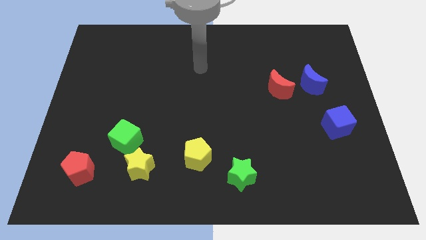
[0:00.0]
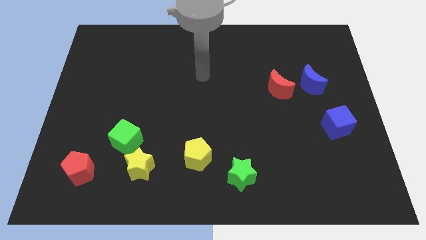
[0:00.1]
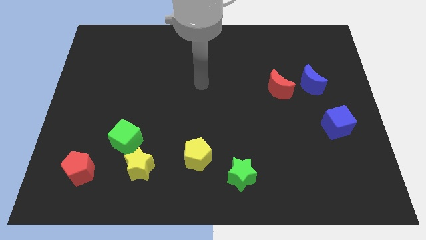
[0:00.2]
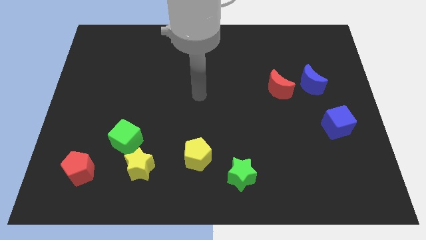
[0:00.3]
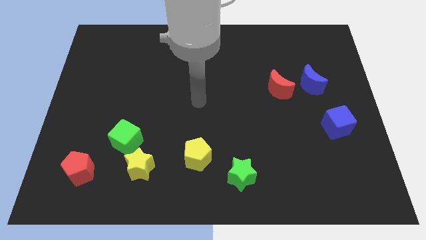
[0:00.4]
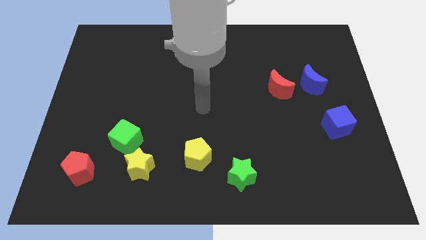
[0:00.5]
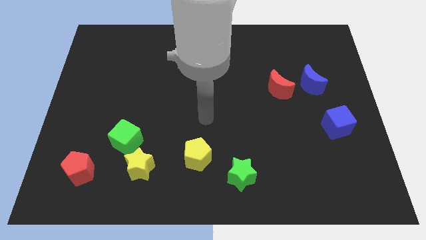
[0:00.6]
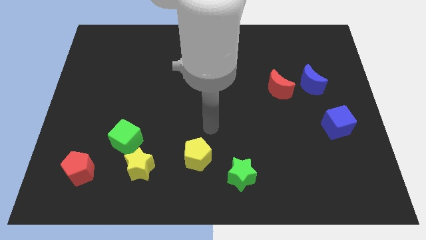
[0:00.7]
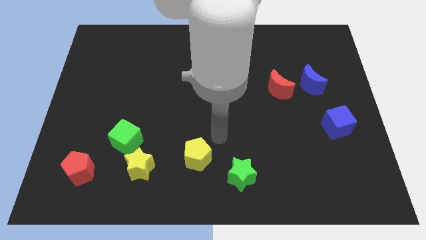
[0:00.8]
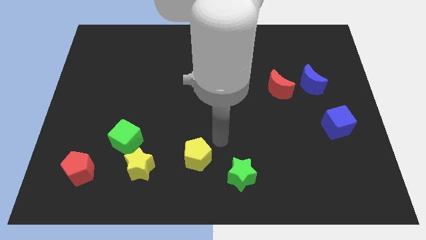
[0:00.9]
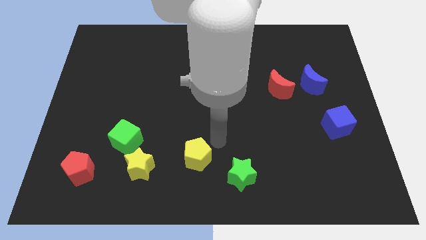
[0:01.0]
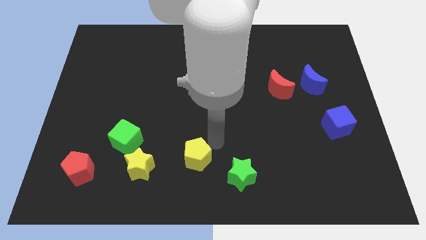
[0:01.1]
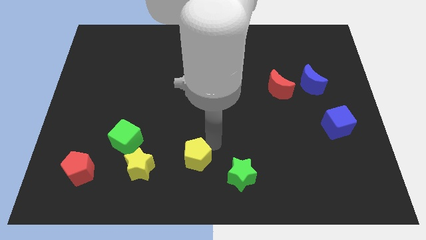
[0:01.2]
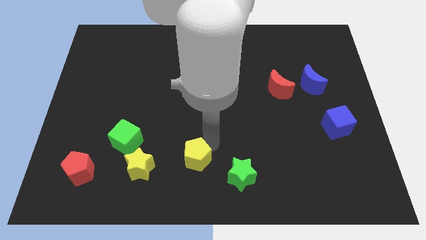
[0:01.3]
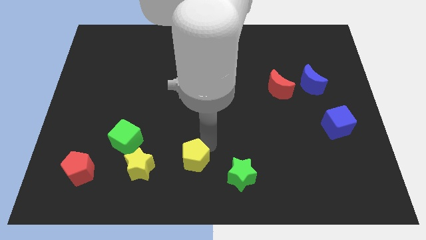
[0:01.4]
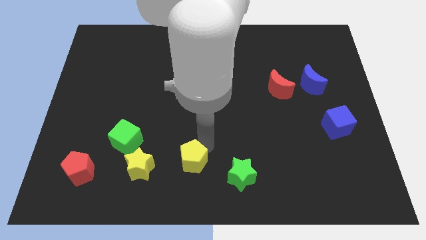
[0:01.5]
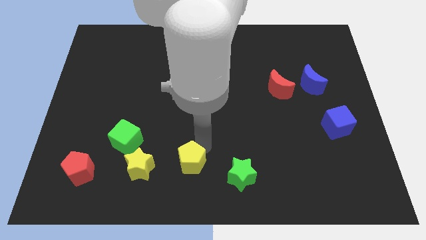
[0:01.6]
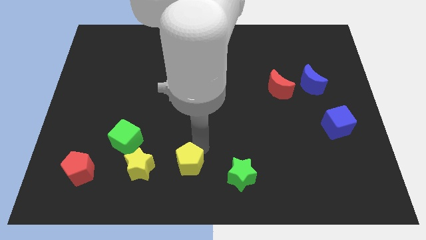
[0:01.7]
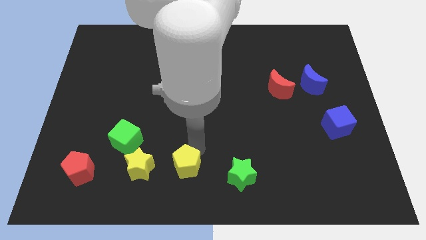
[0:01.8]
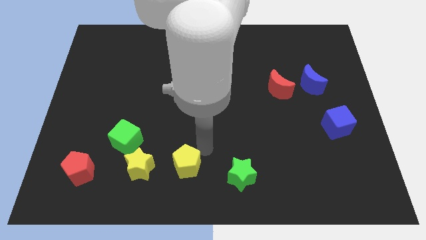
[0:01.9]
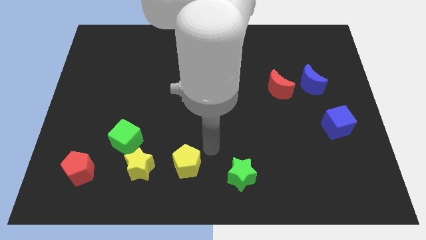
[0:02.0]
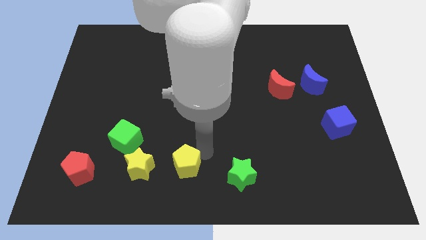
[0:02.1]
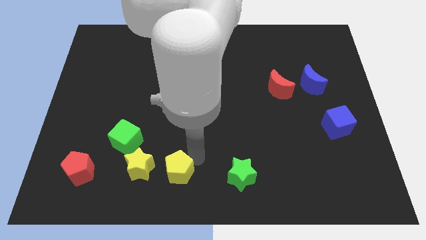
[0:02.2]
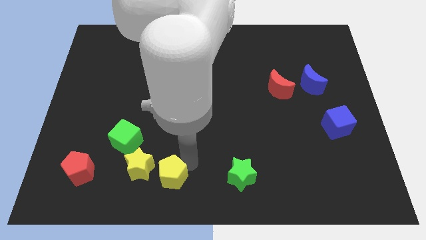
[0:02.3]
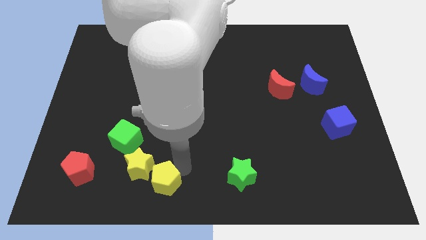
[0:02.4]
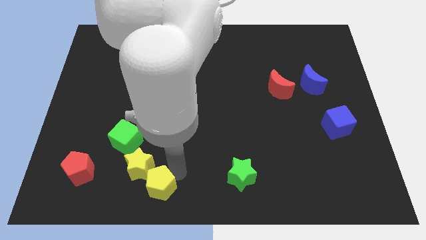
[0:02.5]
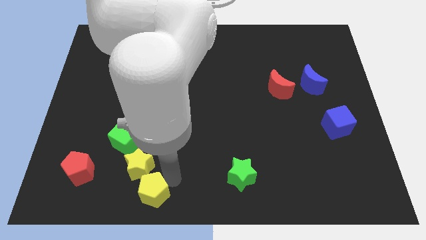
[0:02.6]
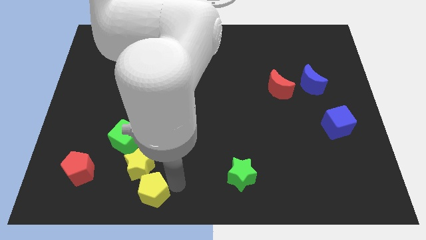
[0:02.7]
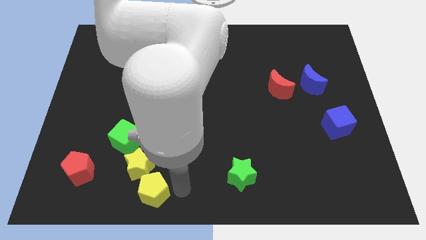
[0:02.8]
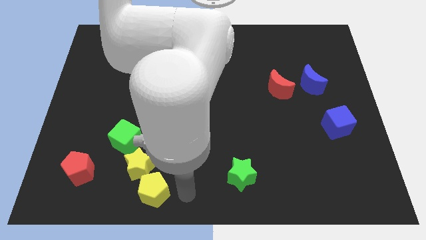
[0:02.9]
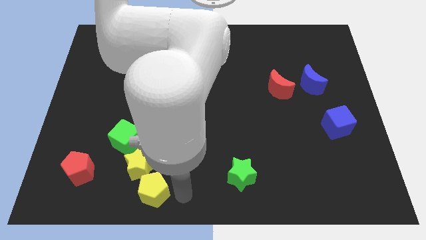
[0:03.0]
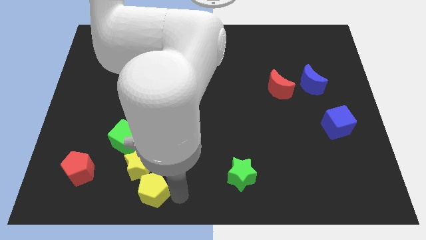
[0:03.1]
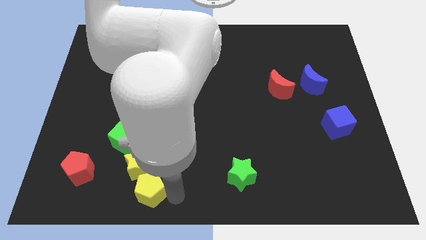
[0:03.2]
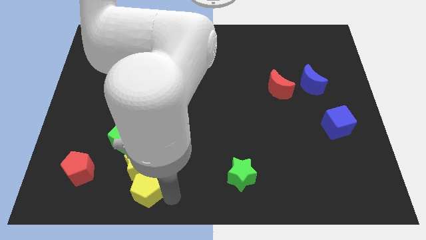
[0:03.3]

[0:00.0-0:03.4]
slightly move the yellow pentagon left

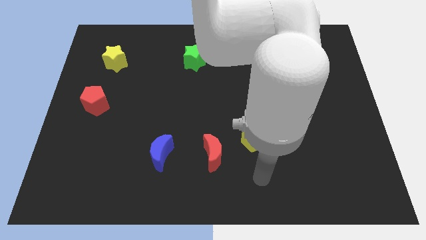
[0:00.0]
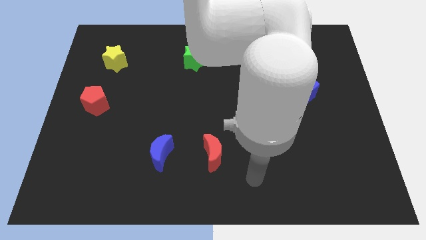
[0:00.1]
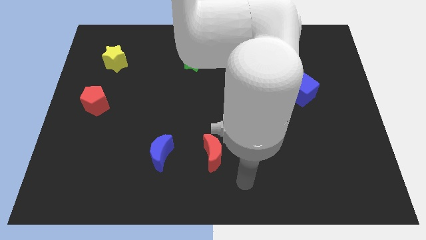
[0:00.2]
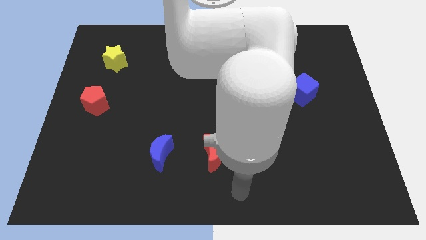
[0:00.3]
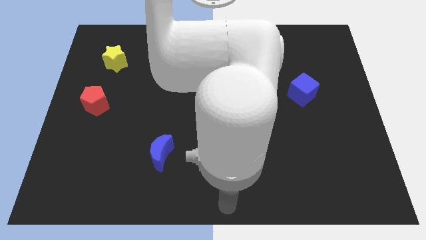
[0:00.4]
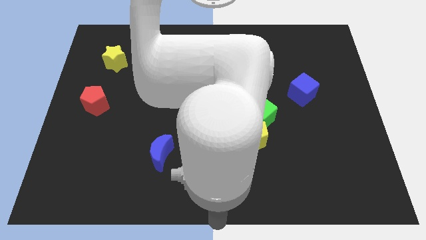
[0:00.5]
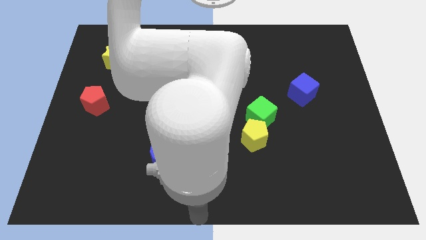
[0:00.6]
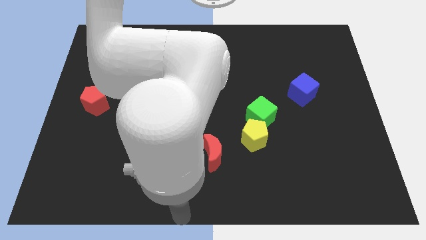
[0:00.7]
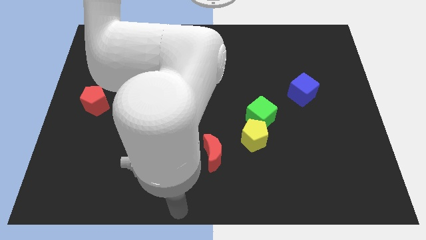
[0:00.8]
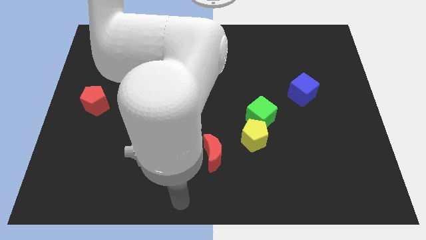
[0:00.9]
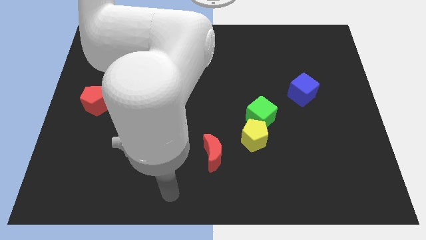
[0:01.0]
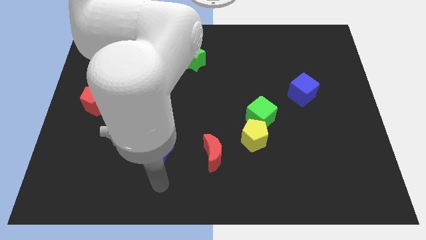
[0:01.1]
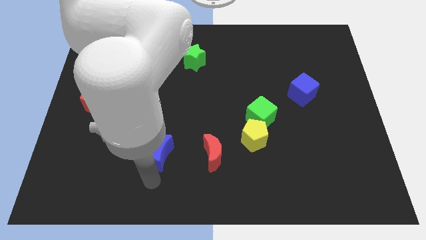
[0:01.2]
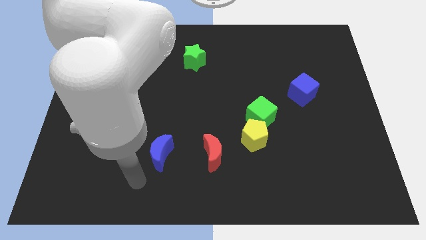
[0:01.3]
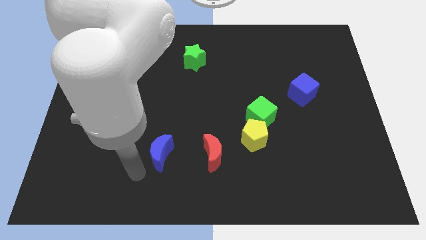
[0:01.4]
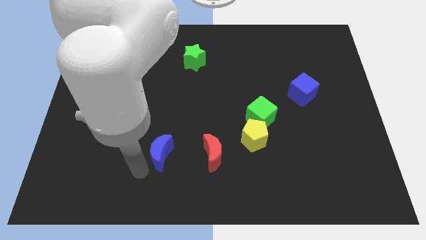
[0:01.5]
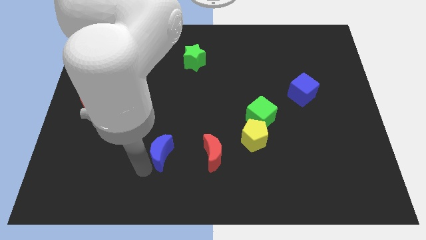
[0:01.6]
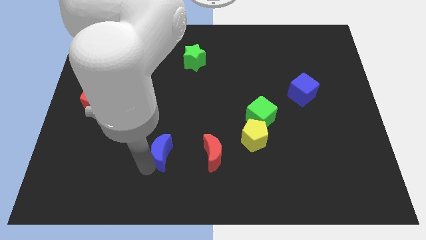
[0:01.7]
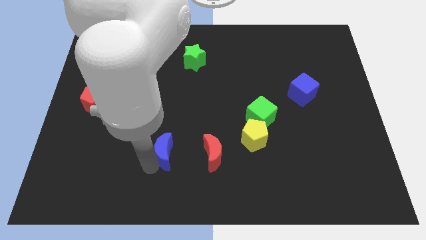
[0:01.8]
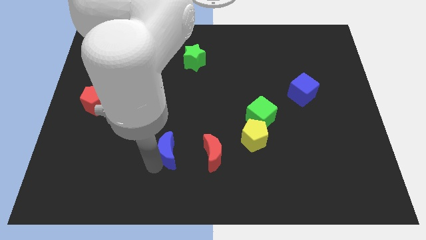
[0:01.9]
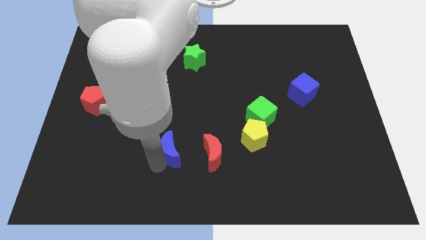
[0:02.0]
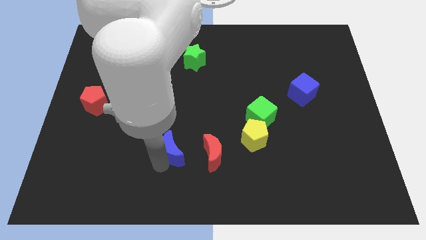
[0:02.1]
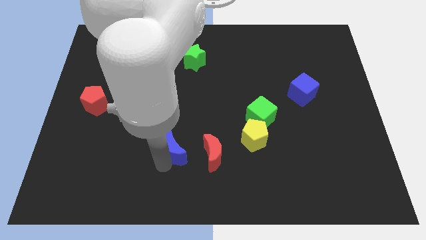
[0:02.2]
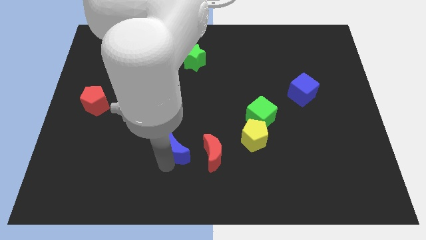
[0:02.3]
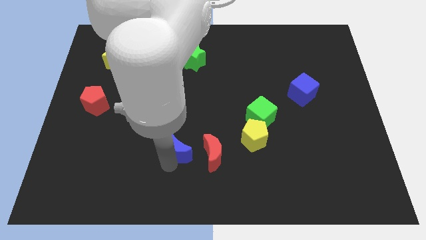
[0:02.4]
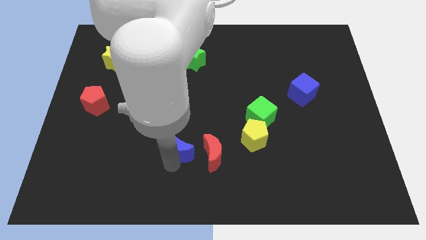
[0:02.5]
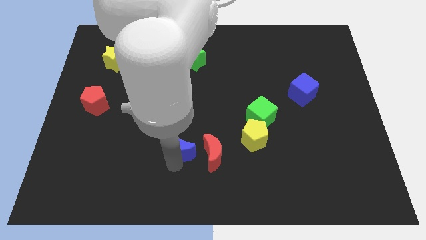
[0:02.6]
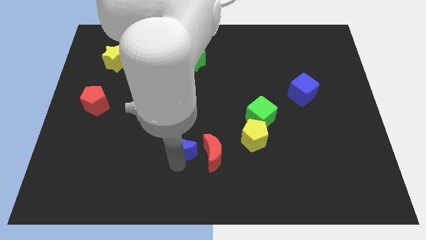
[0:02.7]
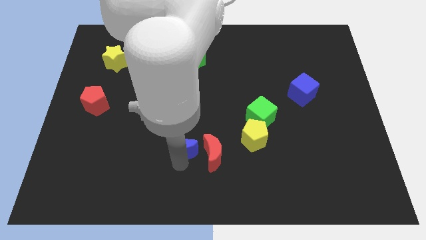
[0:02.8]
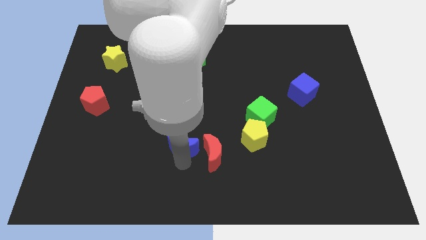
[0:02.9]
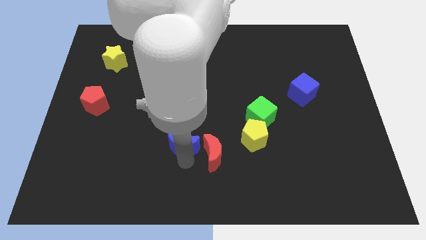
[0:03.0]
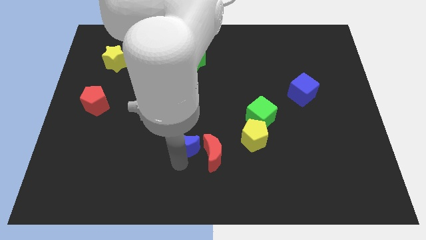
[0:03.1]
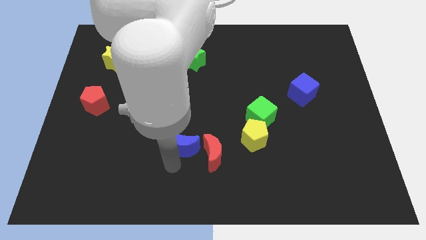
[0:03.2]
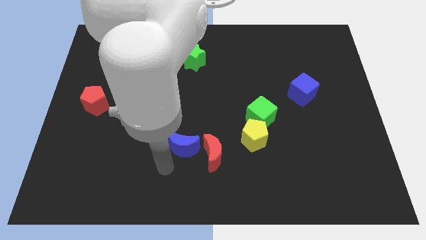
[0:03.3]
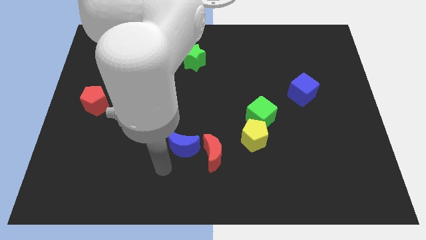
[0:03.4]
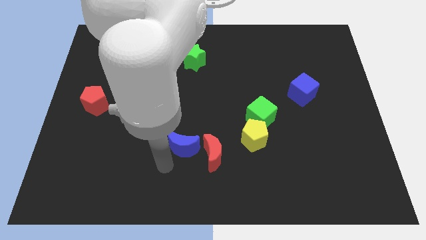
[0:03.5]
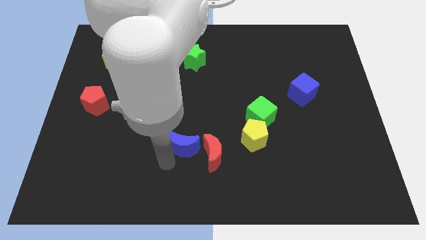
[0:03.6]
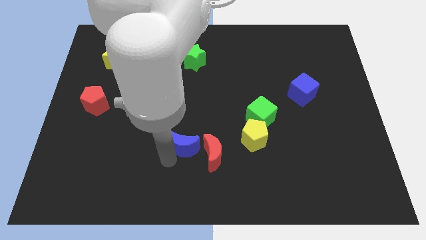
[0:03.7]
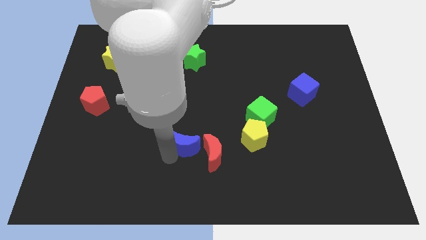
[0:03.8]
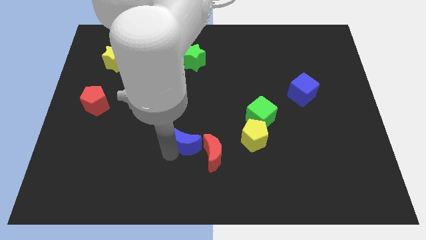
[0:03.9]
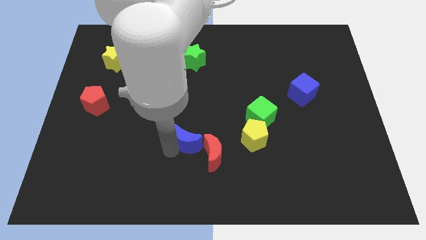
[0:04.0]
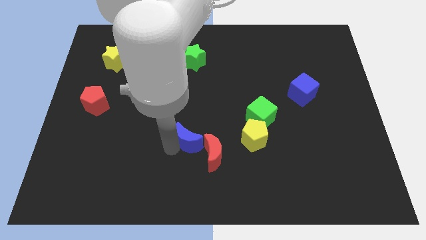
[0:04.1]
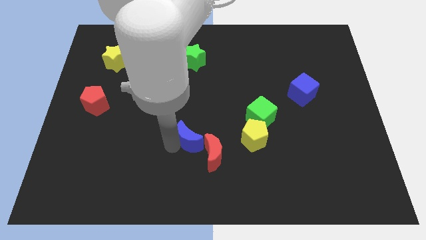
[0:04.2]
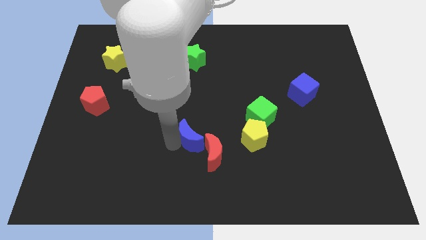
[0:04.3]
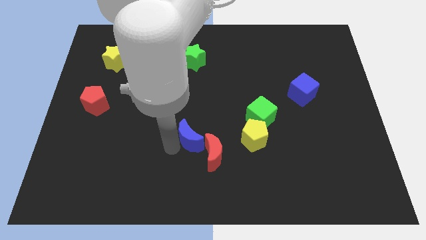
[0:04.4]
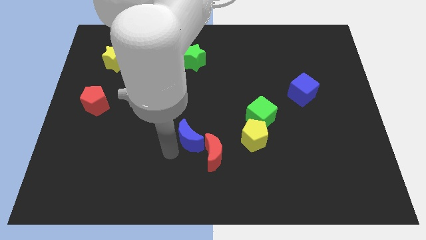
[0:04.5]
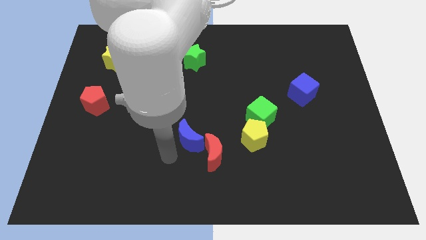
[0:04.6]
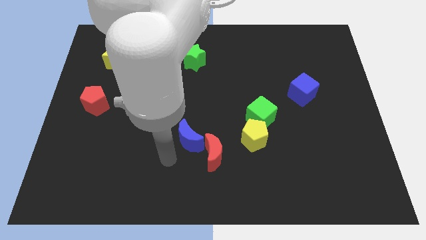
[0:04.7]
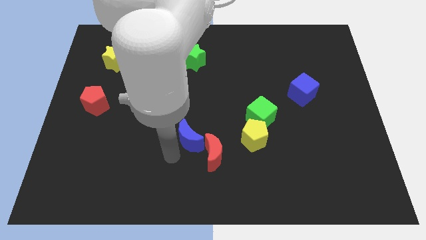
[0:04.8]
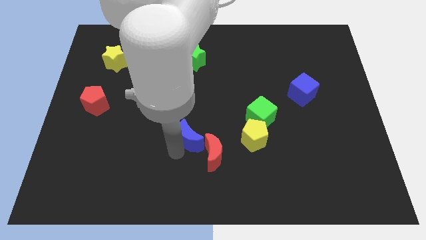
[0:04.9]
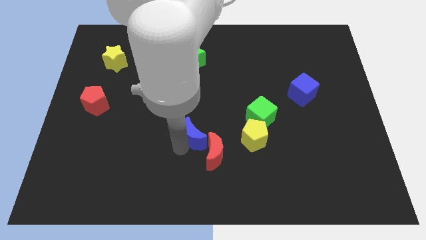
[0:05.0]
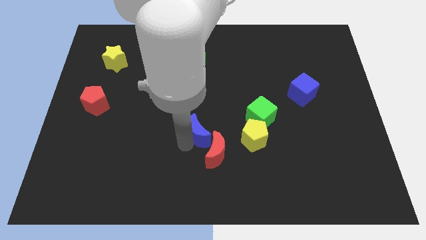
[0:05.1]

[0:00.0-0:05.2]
slightly slide the blue moon right
